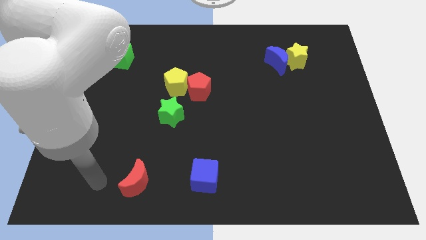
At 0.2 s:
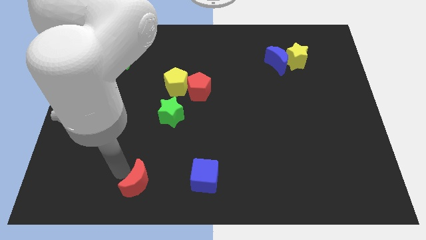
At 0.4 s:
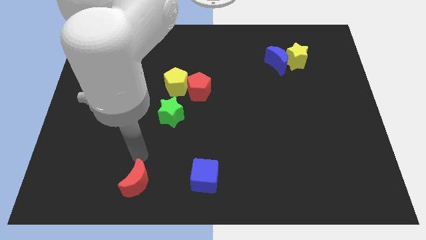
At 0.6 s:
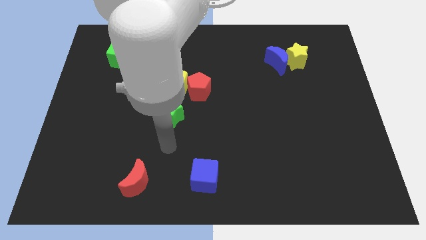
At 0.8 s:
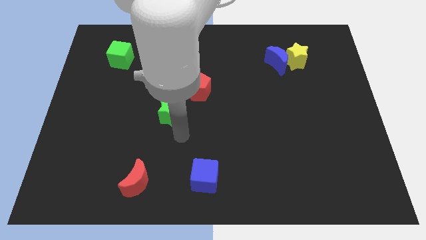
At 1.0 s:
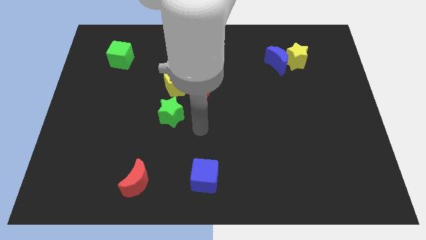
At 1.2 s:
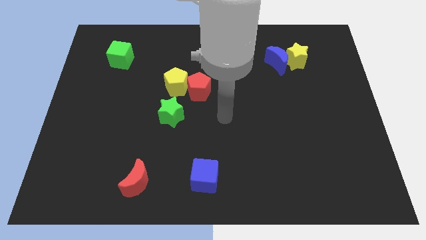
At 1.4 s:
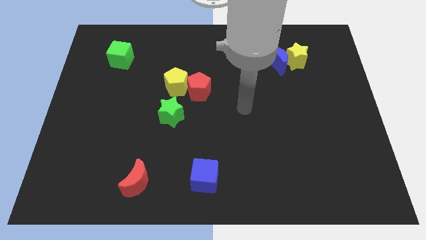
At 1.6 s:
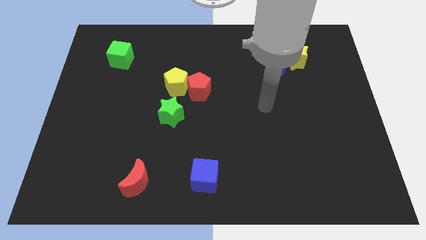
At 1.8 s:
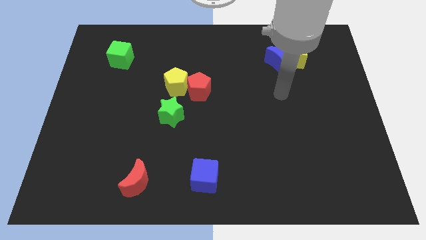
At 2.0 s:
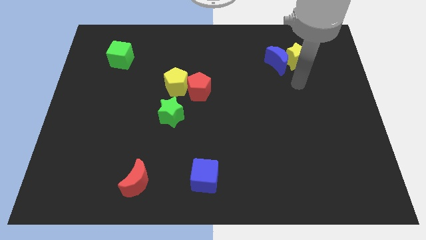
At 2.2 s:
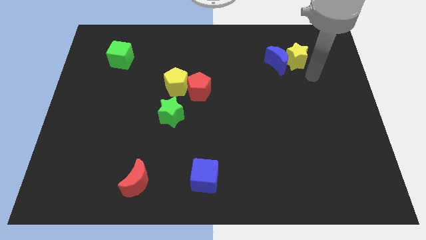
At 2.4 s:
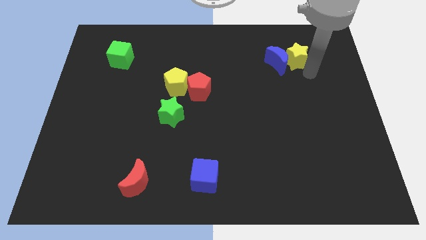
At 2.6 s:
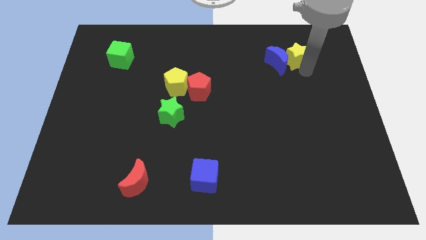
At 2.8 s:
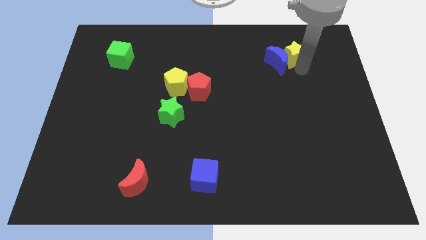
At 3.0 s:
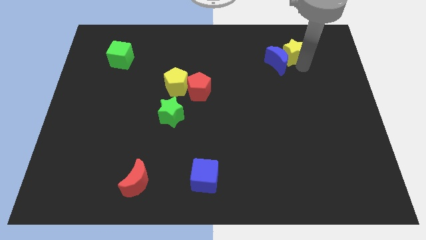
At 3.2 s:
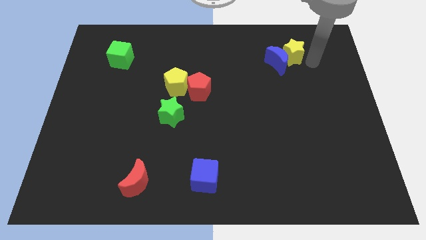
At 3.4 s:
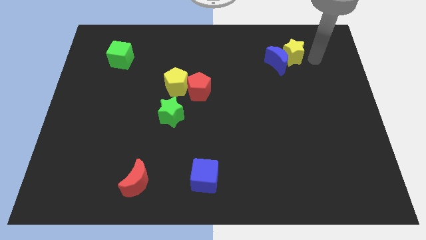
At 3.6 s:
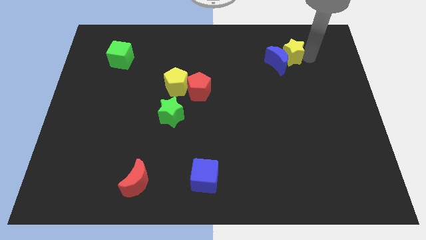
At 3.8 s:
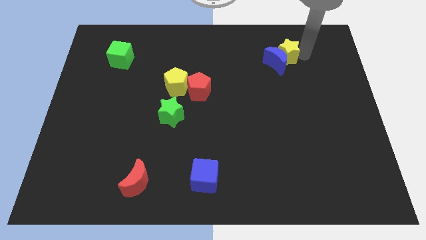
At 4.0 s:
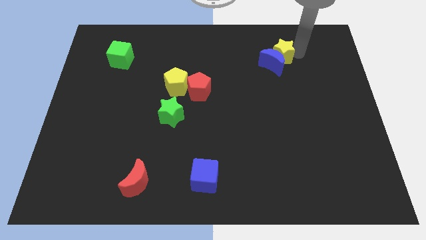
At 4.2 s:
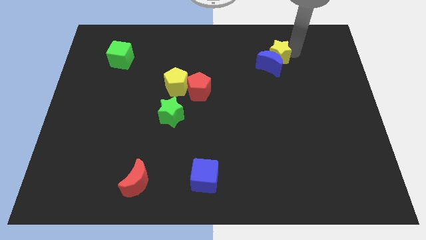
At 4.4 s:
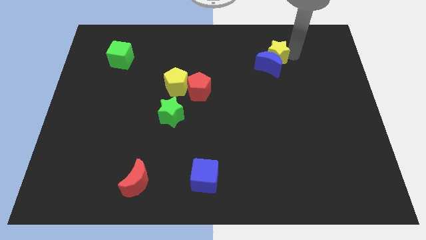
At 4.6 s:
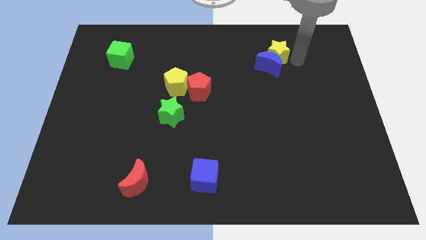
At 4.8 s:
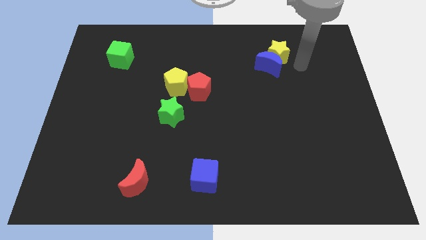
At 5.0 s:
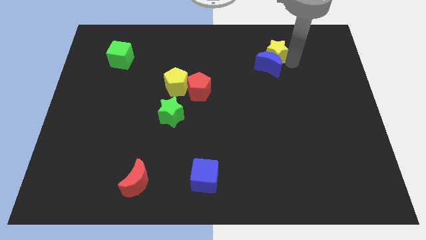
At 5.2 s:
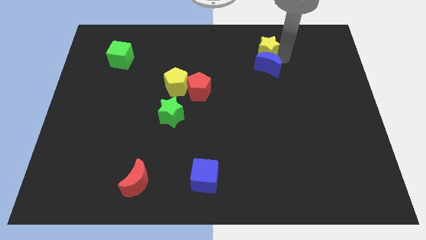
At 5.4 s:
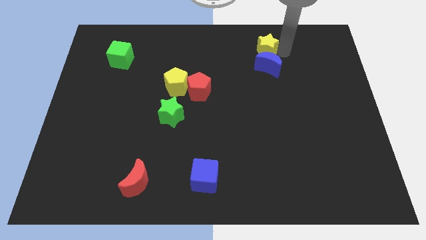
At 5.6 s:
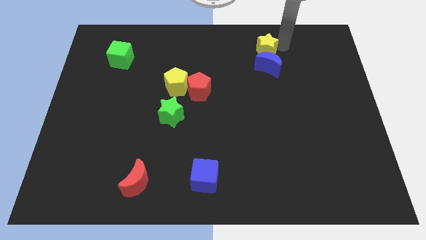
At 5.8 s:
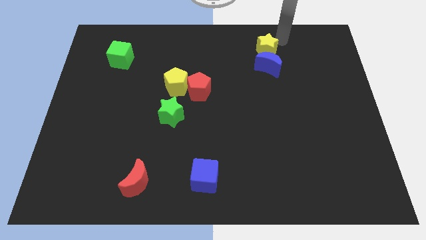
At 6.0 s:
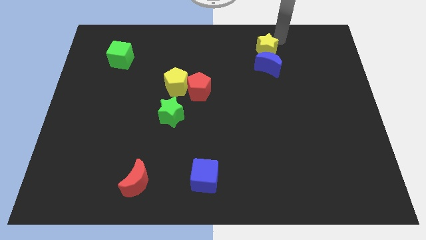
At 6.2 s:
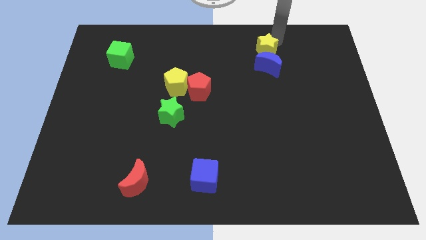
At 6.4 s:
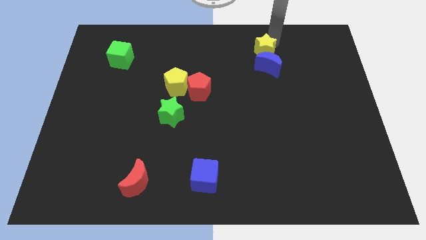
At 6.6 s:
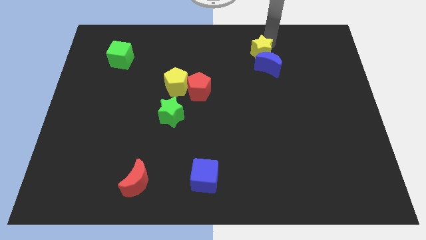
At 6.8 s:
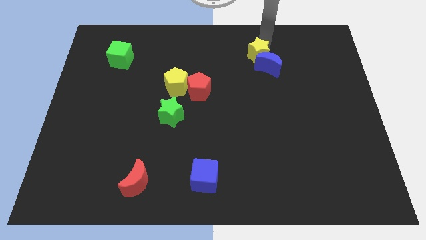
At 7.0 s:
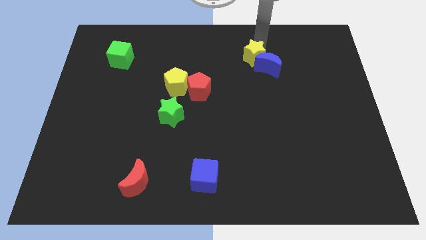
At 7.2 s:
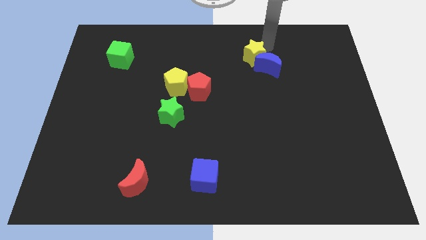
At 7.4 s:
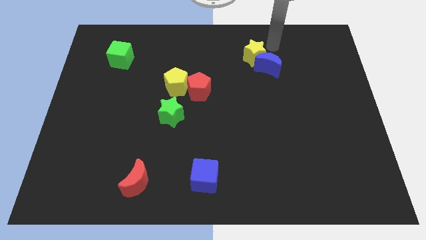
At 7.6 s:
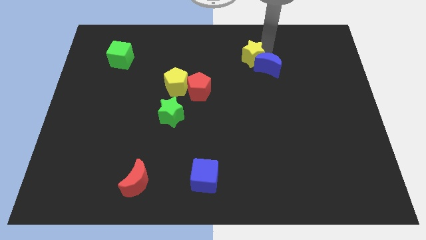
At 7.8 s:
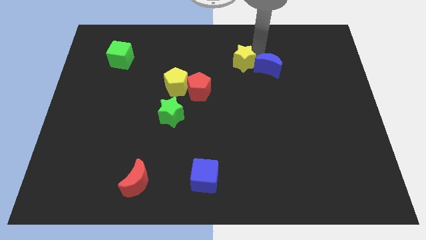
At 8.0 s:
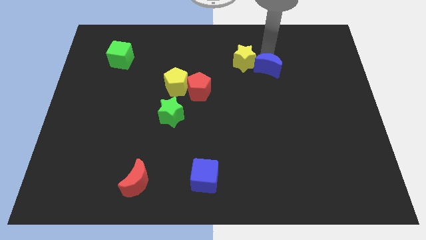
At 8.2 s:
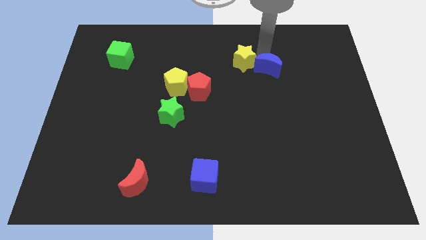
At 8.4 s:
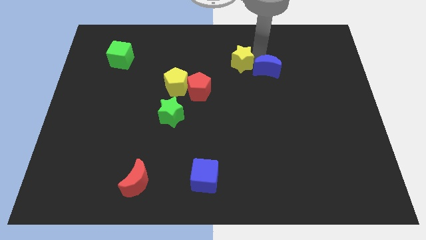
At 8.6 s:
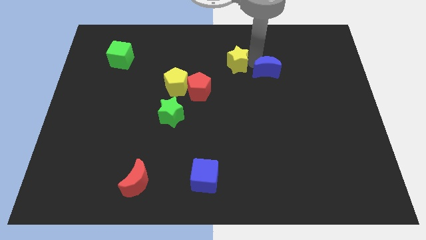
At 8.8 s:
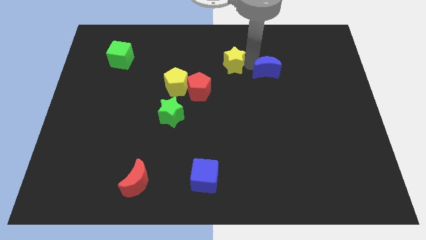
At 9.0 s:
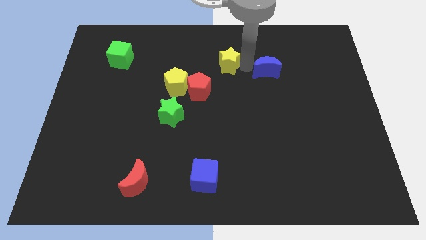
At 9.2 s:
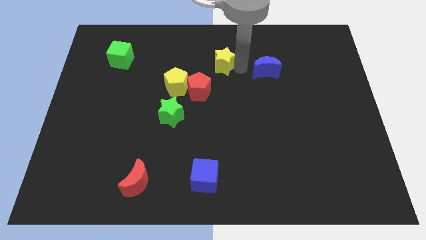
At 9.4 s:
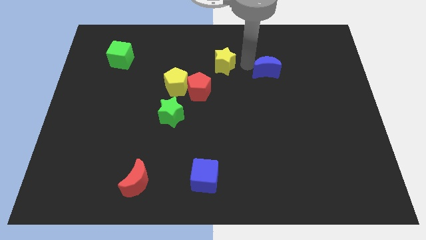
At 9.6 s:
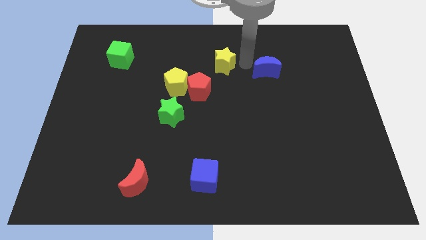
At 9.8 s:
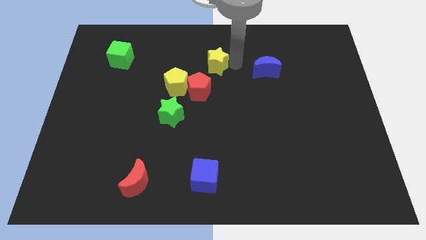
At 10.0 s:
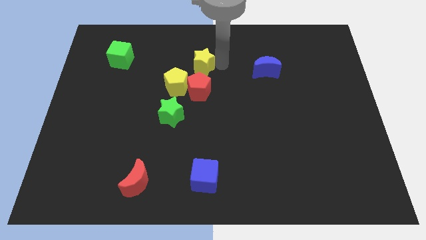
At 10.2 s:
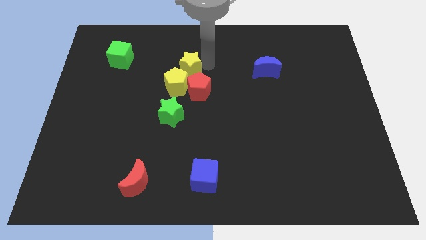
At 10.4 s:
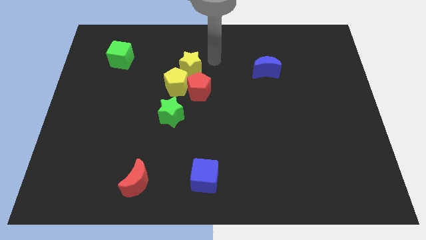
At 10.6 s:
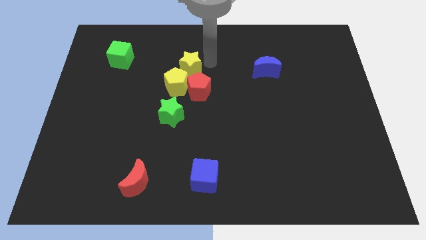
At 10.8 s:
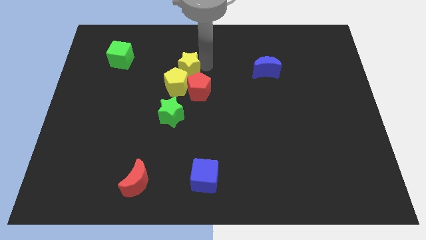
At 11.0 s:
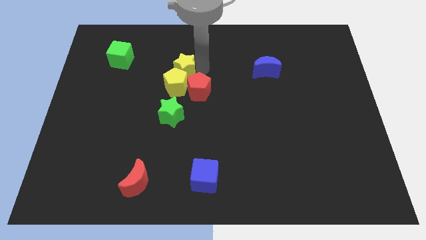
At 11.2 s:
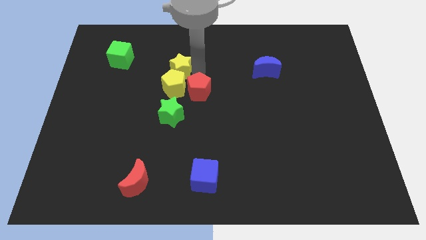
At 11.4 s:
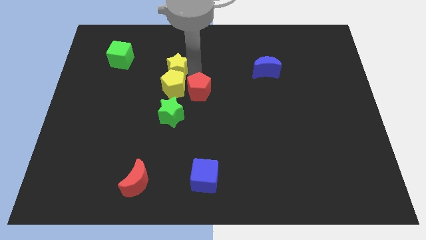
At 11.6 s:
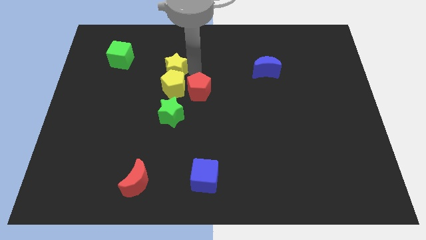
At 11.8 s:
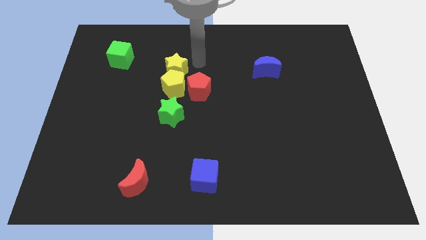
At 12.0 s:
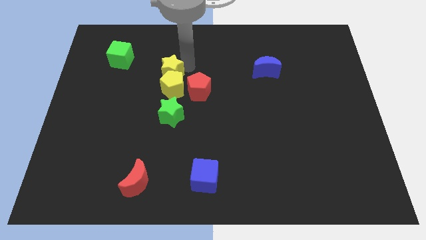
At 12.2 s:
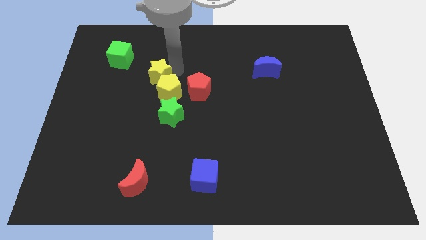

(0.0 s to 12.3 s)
push the yellow star to the left side of the red pentagon

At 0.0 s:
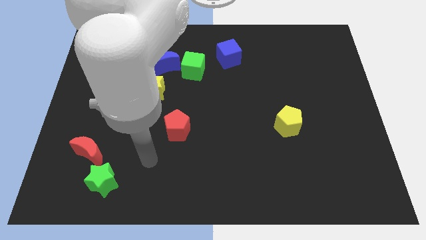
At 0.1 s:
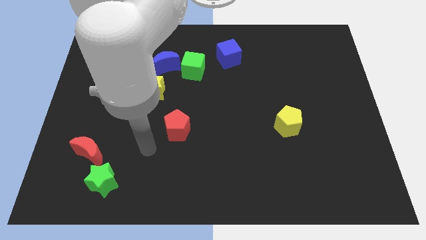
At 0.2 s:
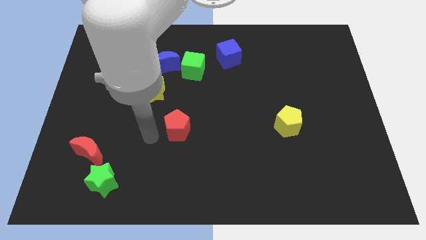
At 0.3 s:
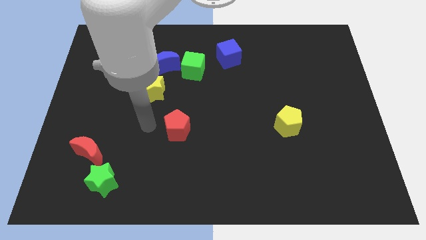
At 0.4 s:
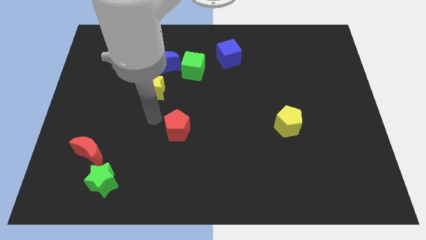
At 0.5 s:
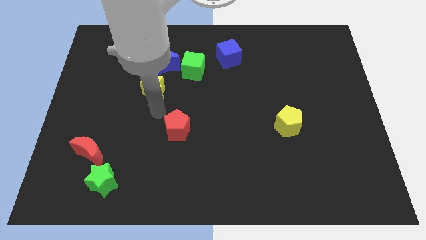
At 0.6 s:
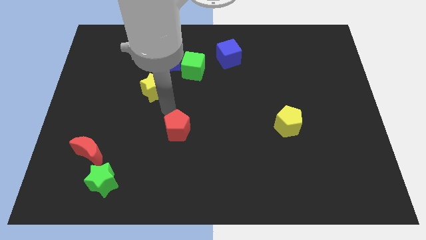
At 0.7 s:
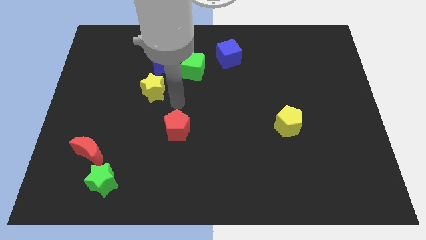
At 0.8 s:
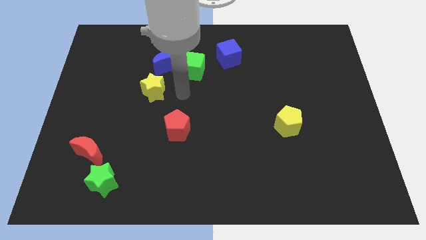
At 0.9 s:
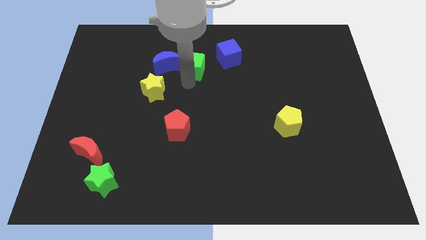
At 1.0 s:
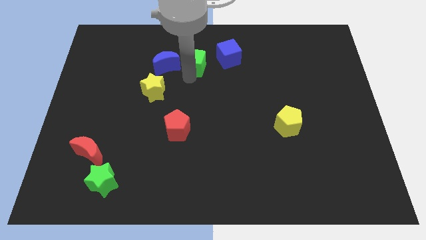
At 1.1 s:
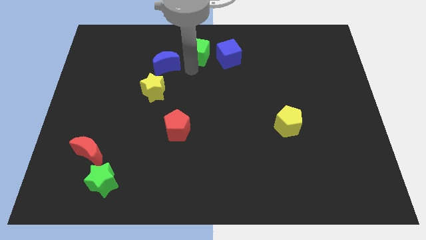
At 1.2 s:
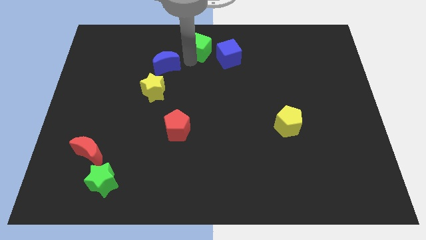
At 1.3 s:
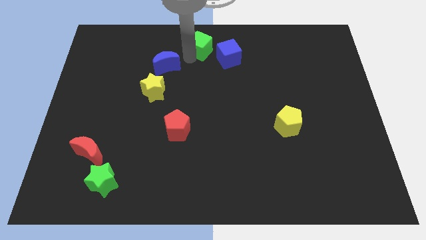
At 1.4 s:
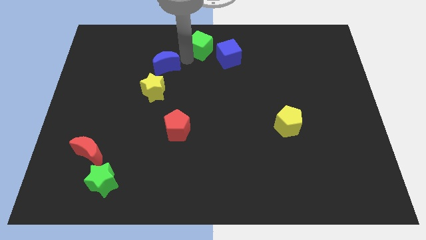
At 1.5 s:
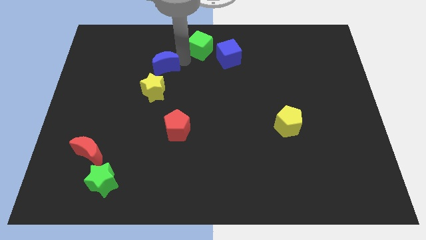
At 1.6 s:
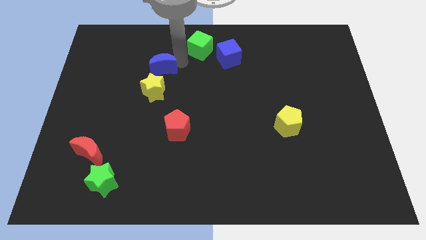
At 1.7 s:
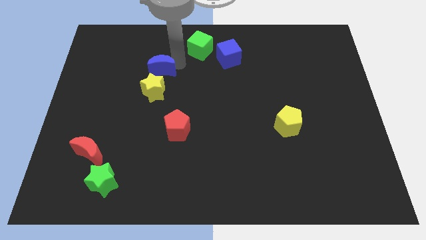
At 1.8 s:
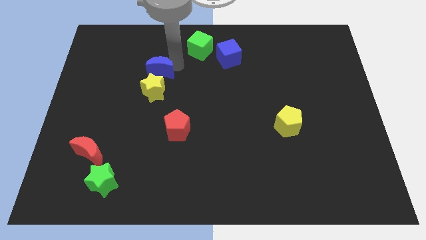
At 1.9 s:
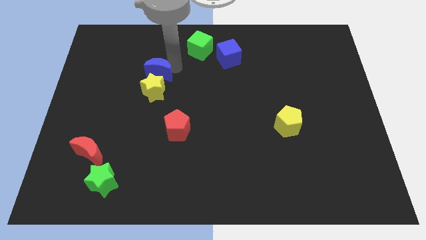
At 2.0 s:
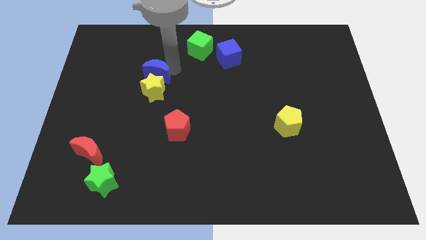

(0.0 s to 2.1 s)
push the blue moon to the top left of the yellow star
